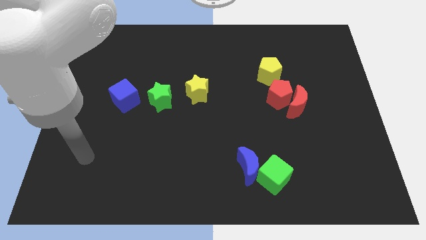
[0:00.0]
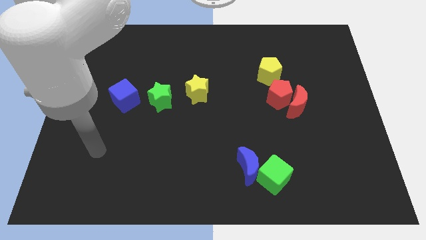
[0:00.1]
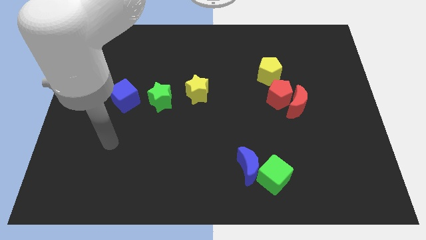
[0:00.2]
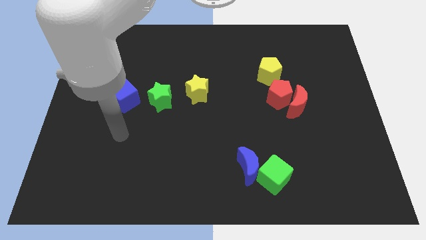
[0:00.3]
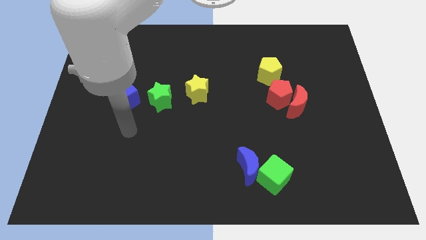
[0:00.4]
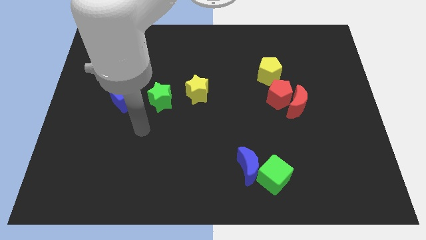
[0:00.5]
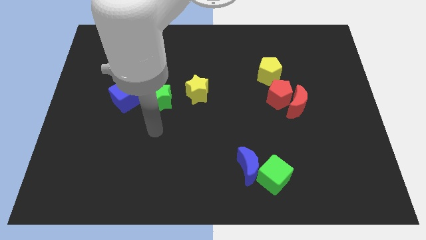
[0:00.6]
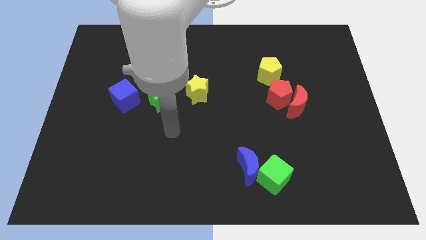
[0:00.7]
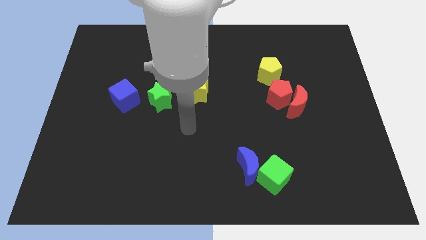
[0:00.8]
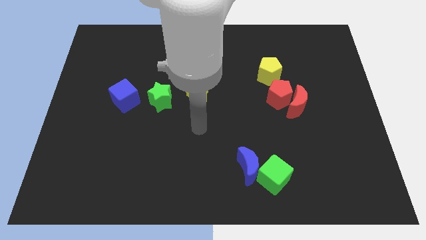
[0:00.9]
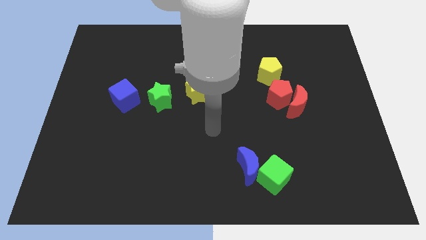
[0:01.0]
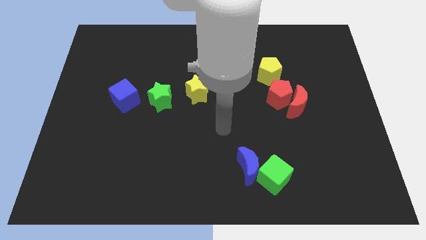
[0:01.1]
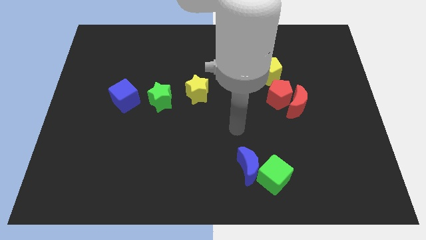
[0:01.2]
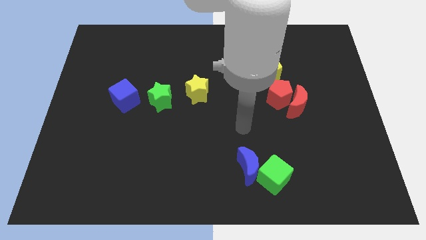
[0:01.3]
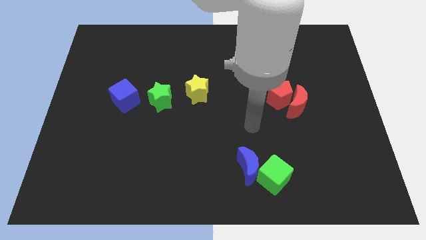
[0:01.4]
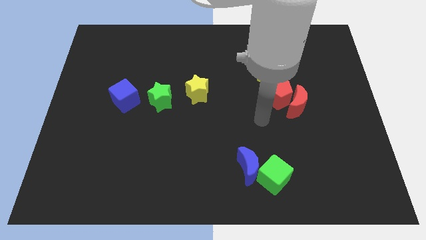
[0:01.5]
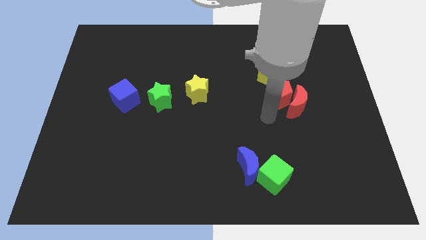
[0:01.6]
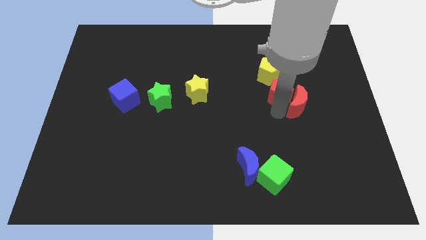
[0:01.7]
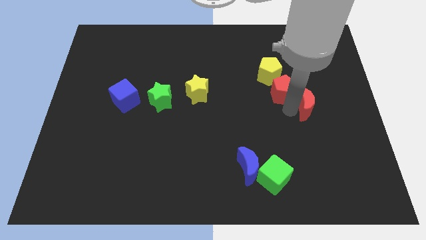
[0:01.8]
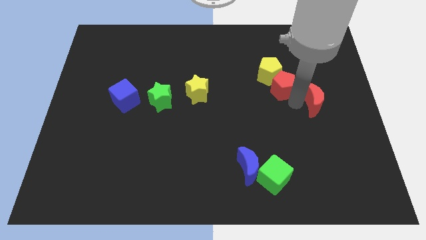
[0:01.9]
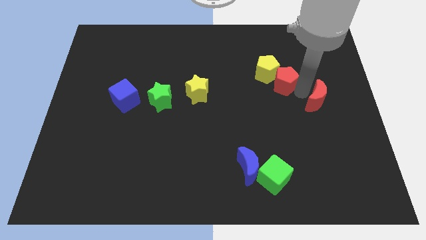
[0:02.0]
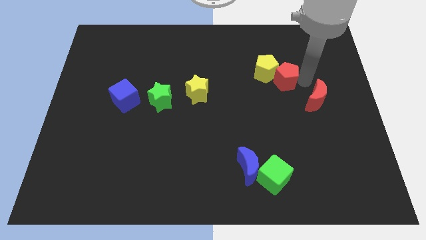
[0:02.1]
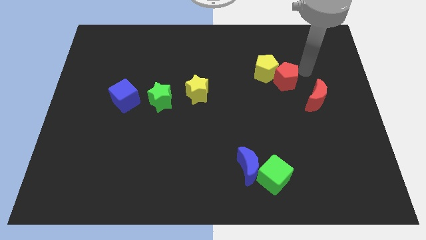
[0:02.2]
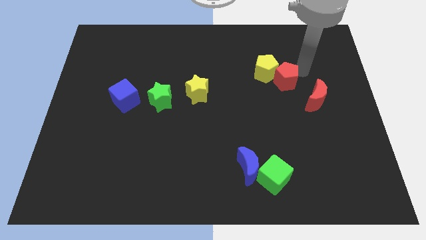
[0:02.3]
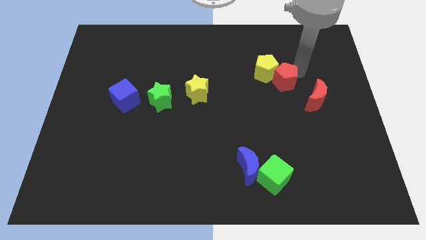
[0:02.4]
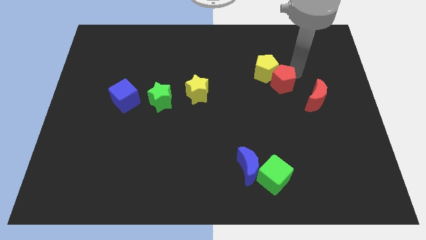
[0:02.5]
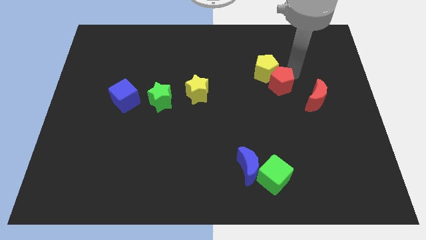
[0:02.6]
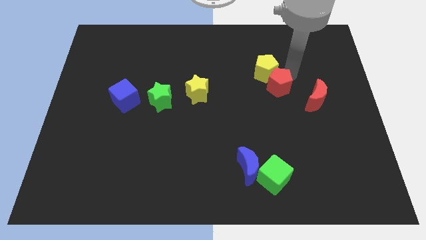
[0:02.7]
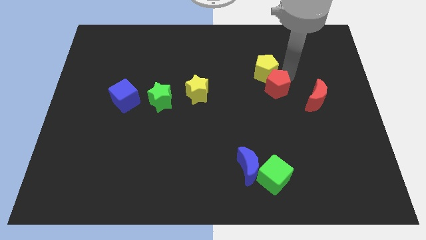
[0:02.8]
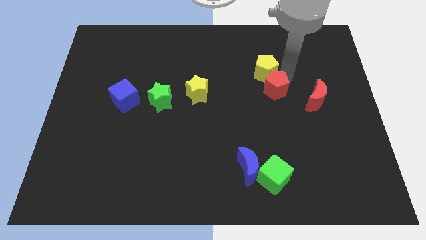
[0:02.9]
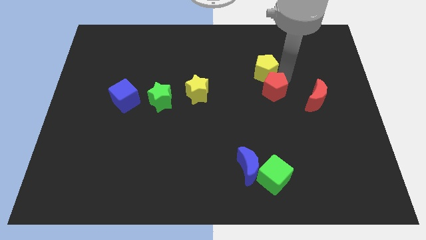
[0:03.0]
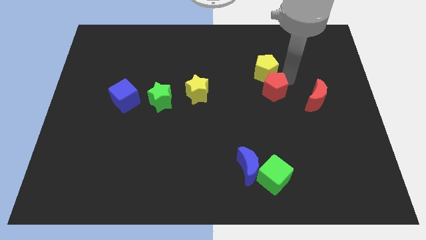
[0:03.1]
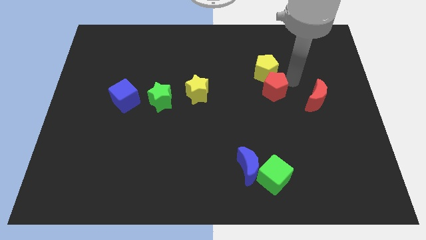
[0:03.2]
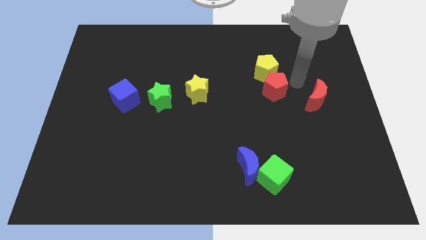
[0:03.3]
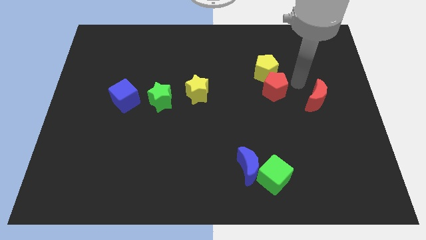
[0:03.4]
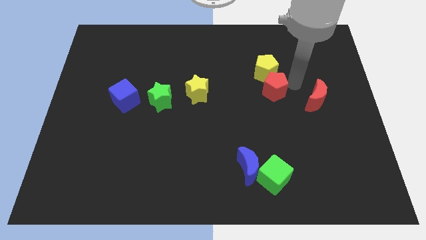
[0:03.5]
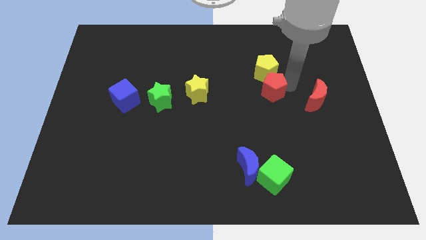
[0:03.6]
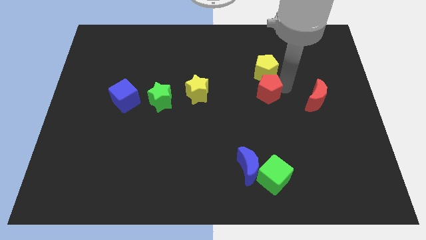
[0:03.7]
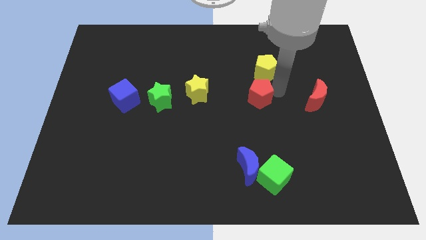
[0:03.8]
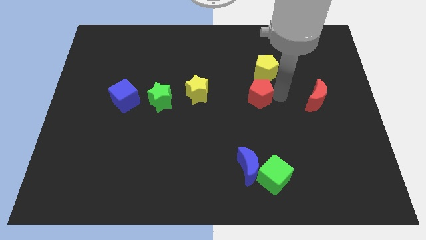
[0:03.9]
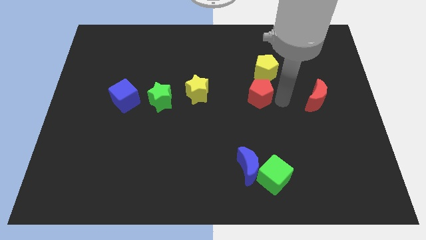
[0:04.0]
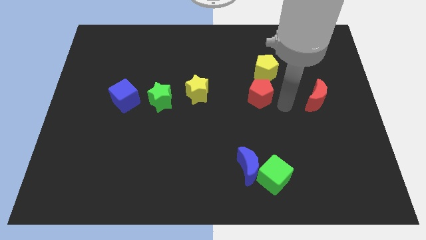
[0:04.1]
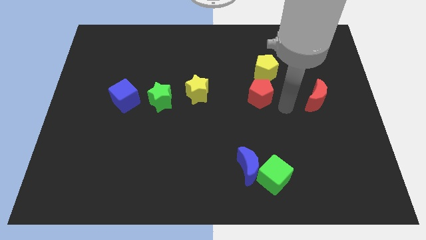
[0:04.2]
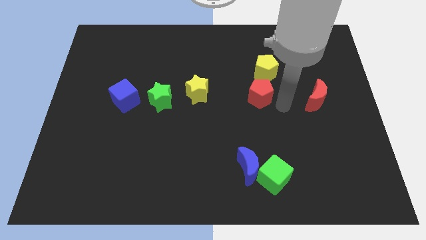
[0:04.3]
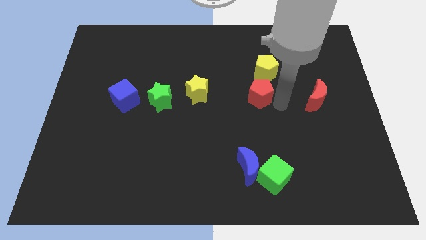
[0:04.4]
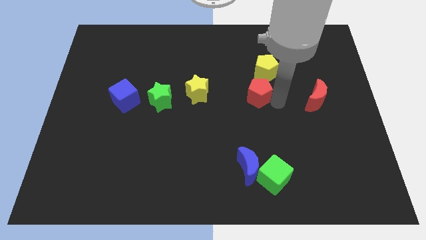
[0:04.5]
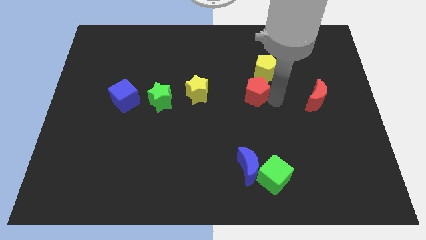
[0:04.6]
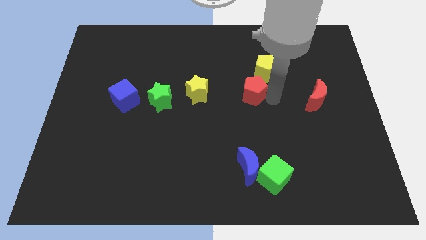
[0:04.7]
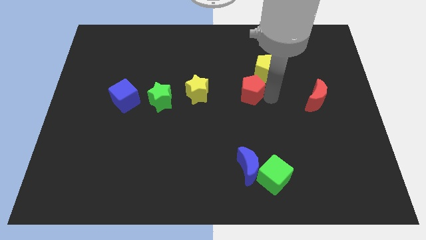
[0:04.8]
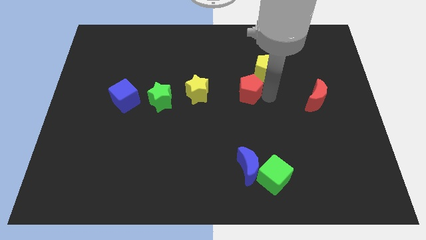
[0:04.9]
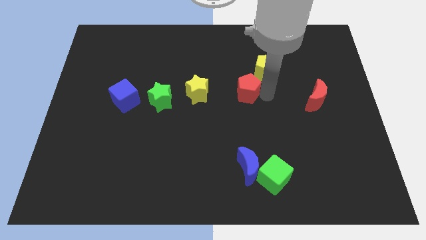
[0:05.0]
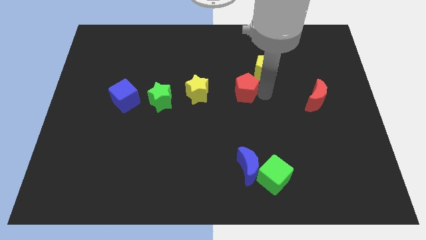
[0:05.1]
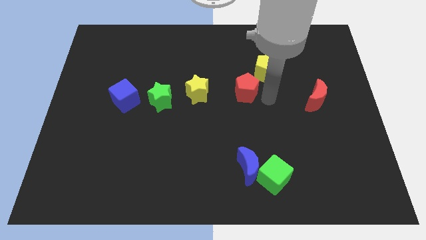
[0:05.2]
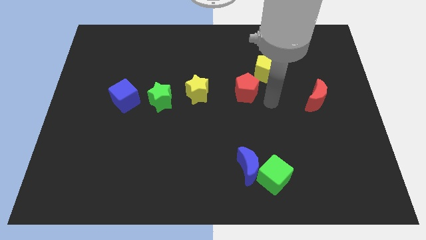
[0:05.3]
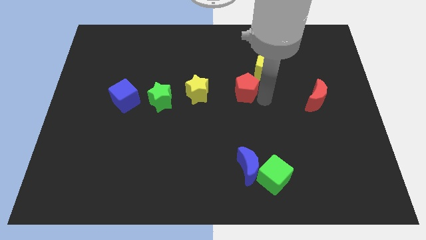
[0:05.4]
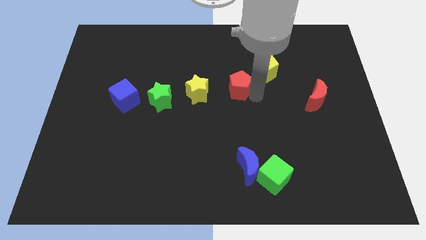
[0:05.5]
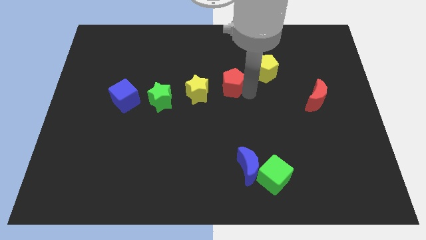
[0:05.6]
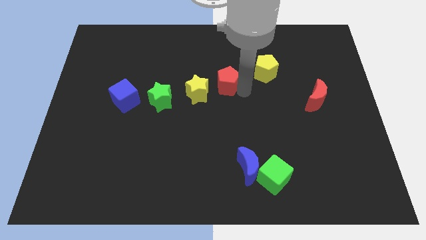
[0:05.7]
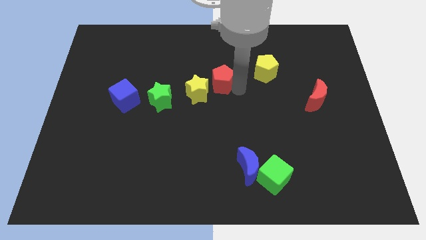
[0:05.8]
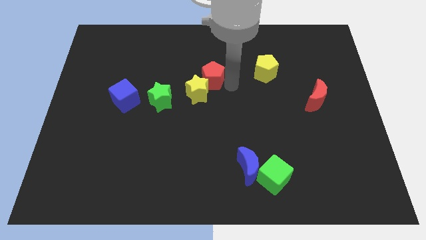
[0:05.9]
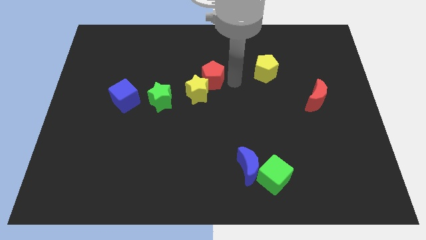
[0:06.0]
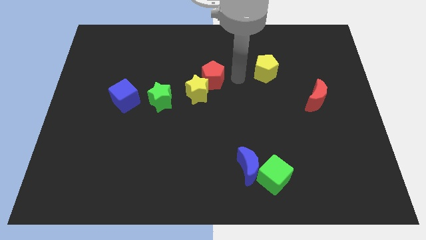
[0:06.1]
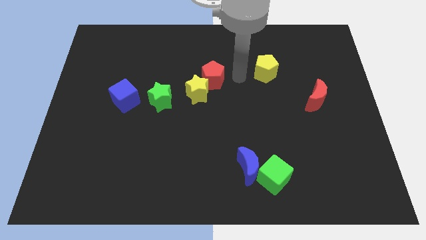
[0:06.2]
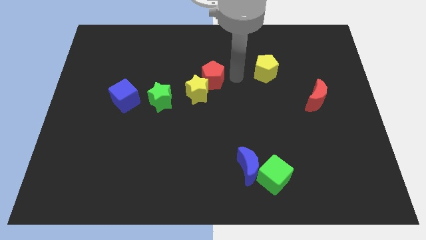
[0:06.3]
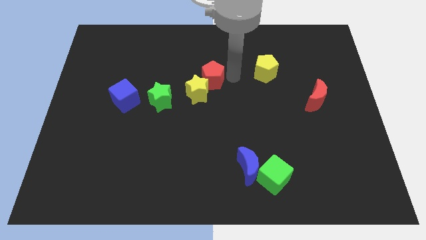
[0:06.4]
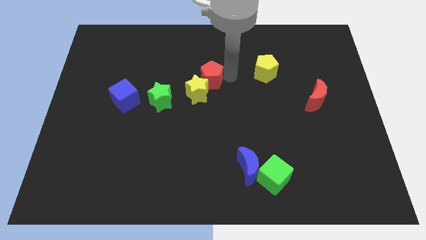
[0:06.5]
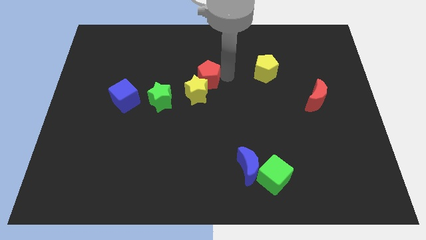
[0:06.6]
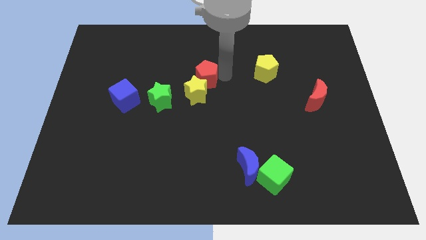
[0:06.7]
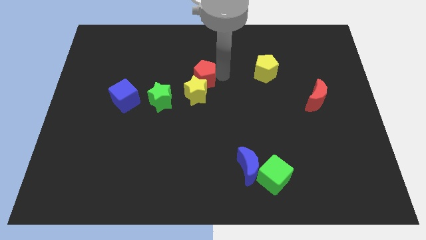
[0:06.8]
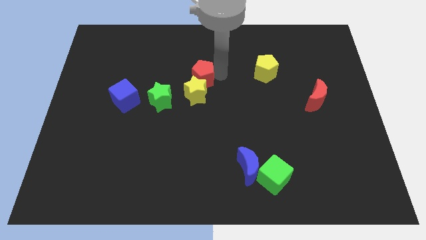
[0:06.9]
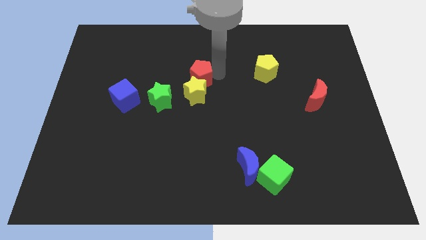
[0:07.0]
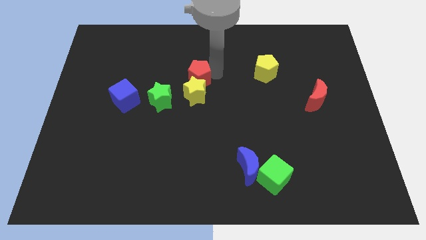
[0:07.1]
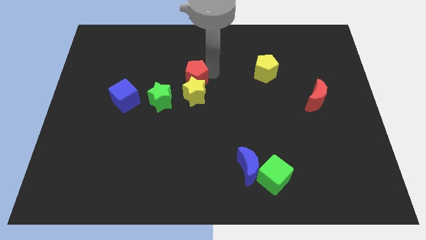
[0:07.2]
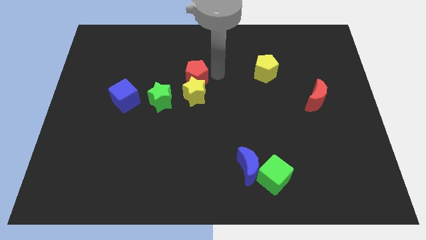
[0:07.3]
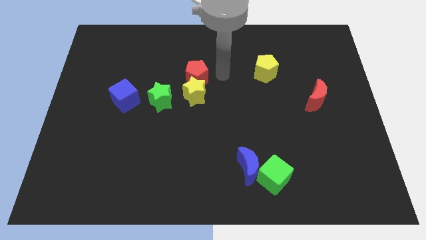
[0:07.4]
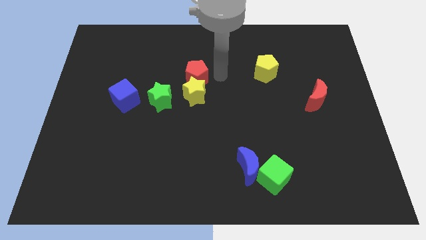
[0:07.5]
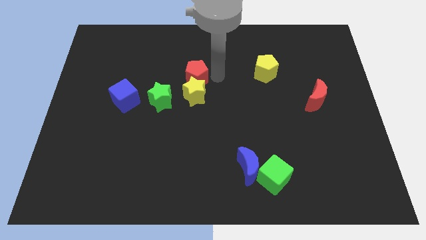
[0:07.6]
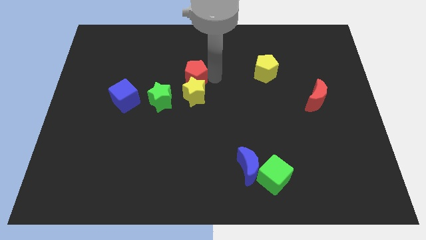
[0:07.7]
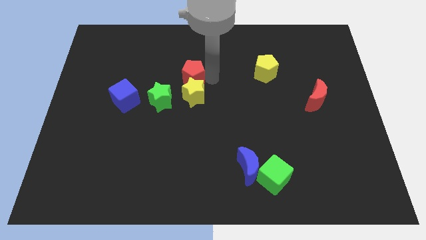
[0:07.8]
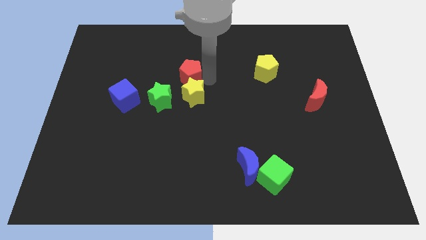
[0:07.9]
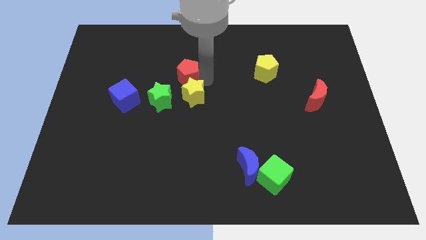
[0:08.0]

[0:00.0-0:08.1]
move the red pentagon to the left

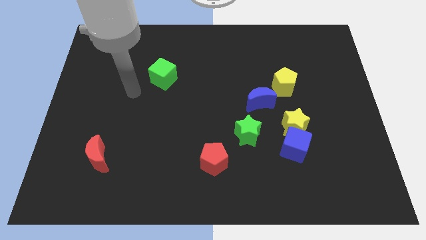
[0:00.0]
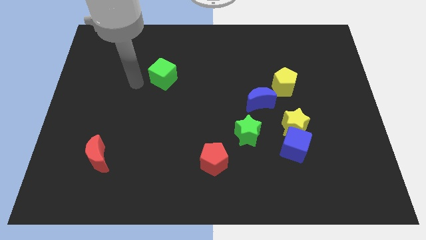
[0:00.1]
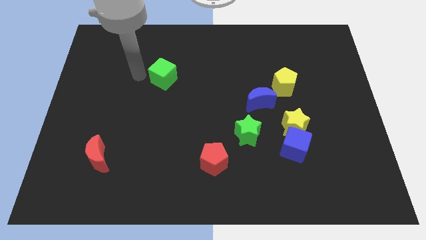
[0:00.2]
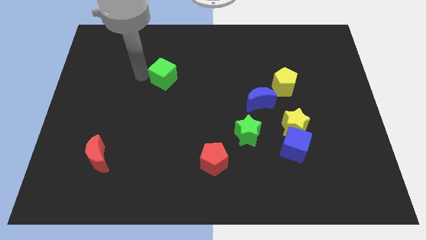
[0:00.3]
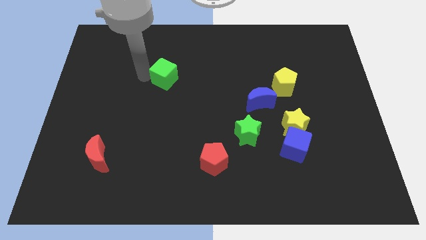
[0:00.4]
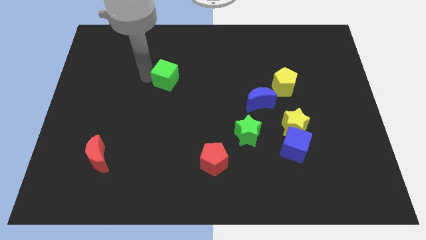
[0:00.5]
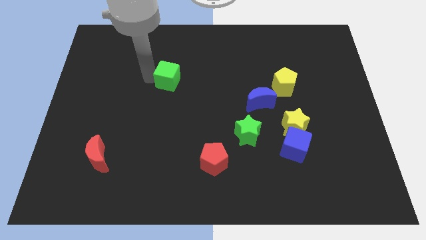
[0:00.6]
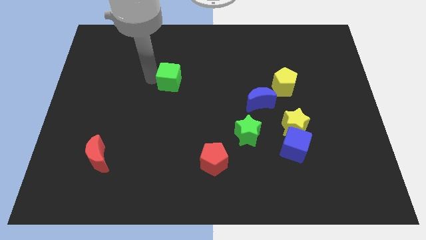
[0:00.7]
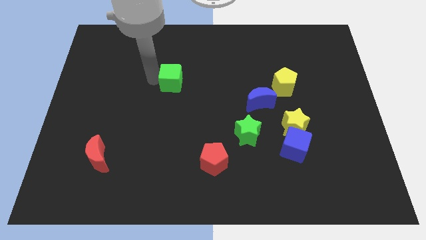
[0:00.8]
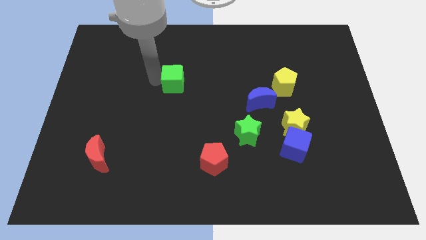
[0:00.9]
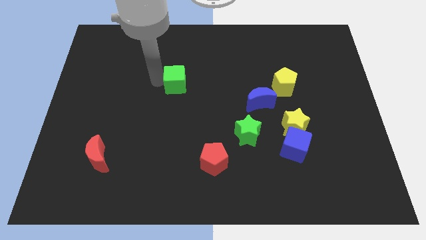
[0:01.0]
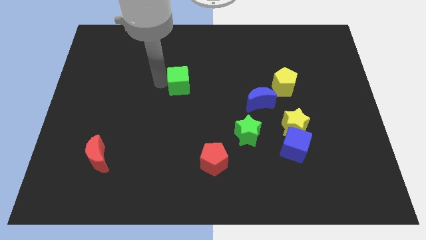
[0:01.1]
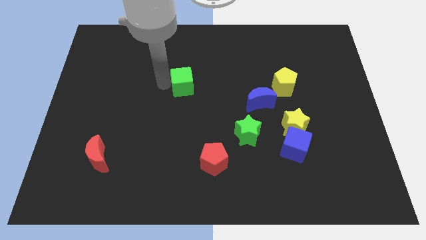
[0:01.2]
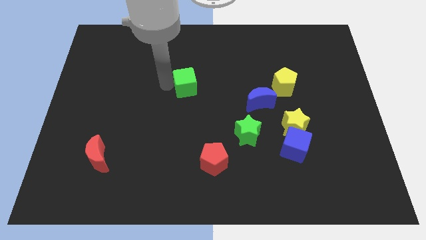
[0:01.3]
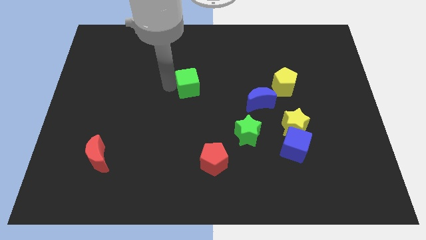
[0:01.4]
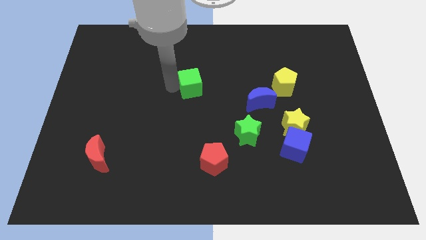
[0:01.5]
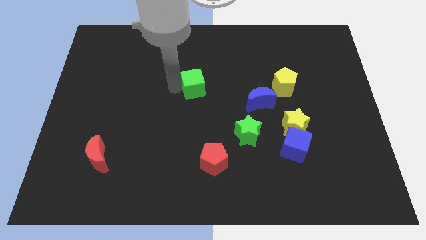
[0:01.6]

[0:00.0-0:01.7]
slide the green cube somewhat right
